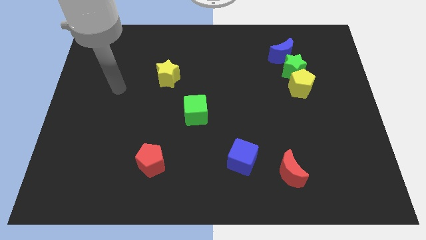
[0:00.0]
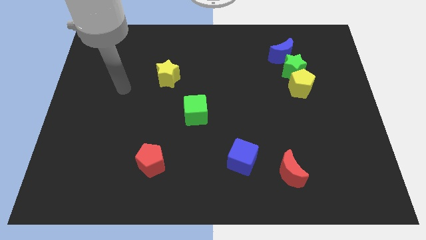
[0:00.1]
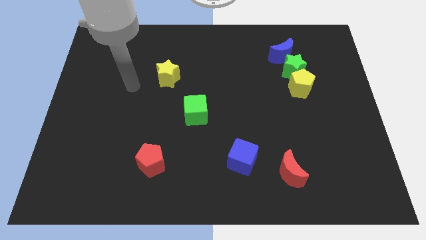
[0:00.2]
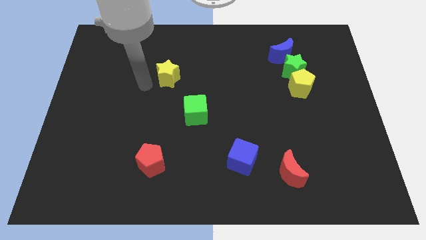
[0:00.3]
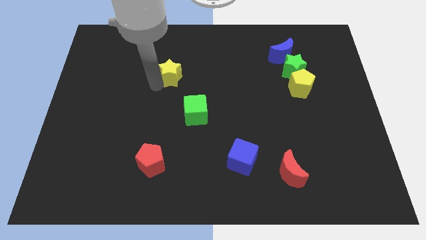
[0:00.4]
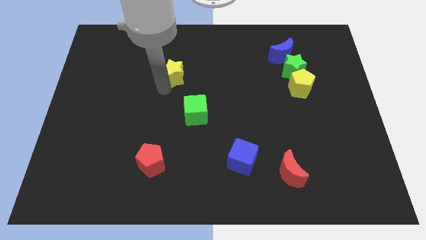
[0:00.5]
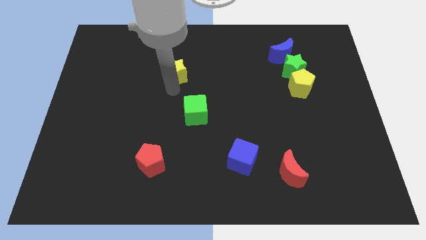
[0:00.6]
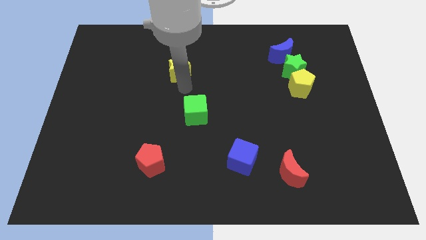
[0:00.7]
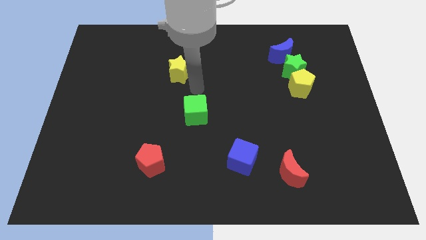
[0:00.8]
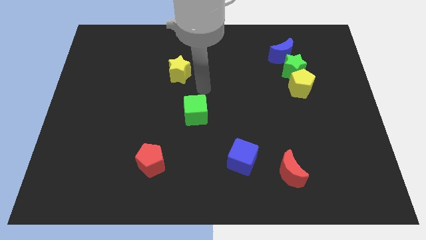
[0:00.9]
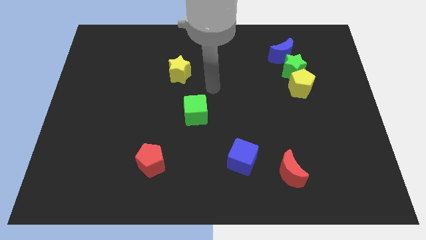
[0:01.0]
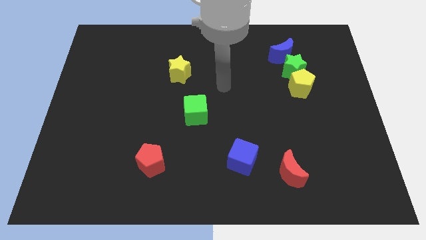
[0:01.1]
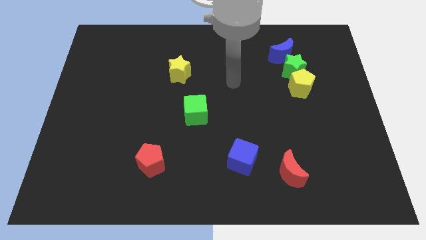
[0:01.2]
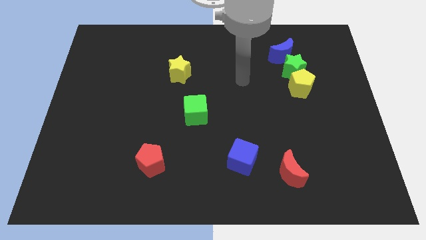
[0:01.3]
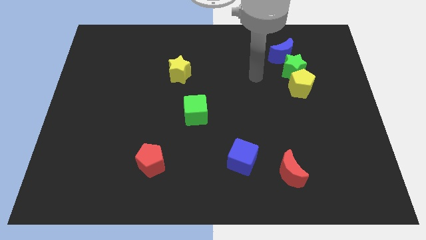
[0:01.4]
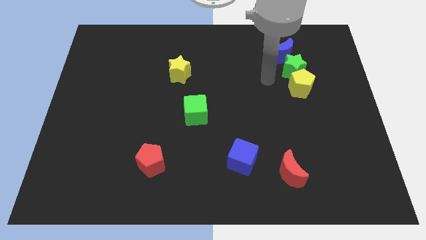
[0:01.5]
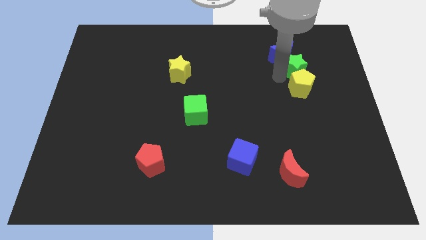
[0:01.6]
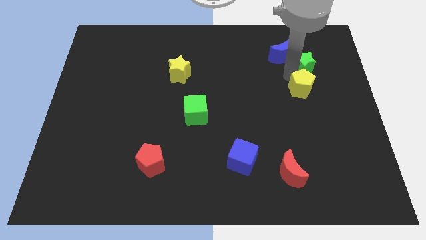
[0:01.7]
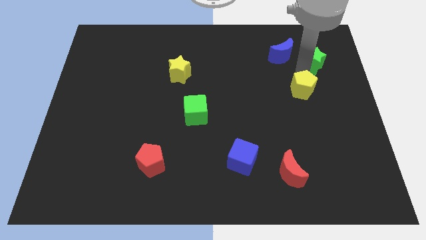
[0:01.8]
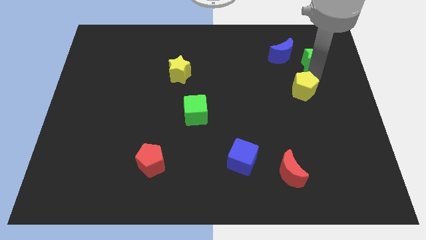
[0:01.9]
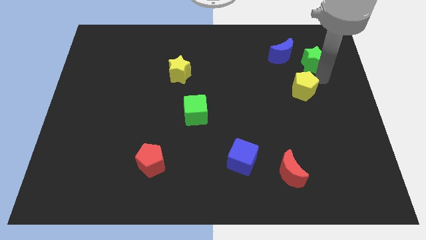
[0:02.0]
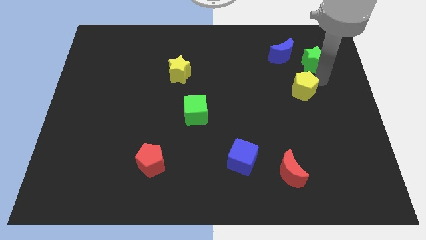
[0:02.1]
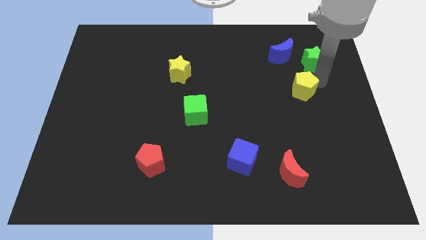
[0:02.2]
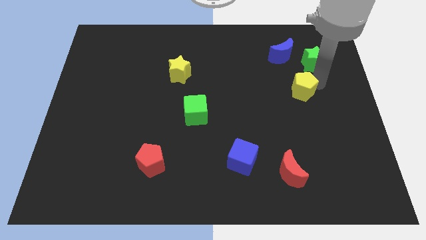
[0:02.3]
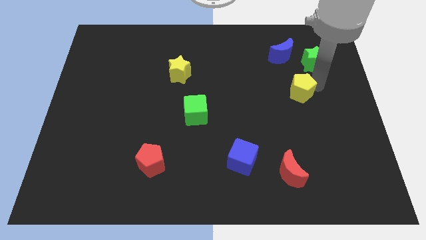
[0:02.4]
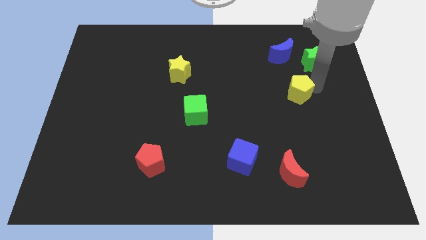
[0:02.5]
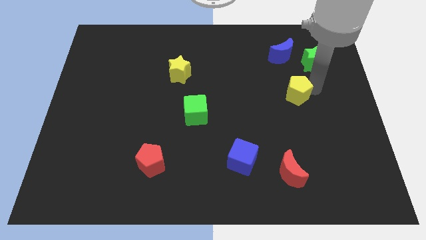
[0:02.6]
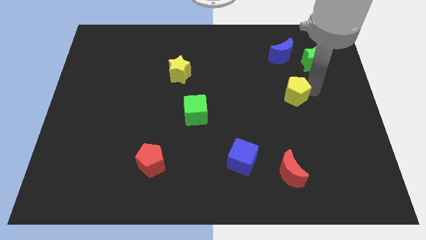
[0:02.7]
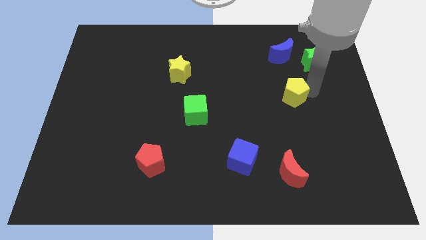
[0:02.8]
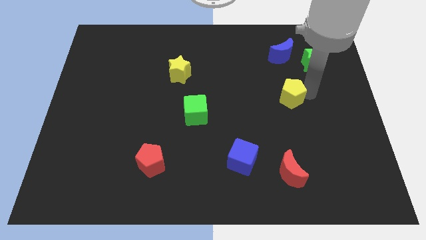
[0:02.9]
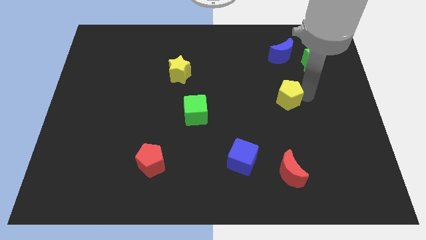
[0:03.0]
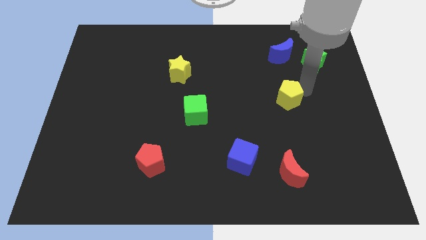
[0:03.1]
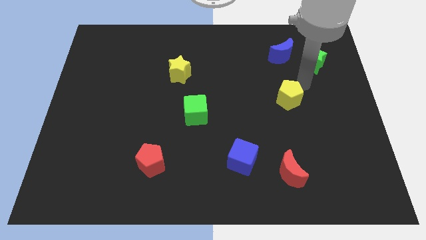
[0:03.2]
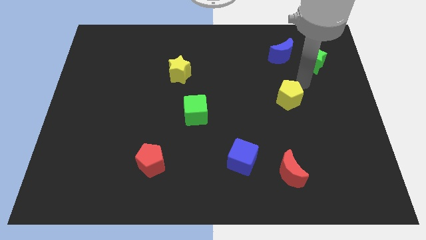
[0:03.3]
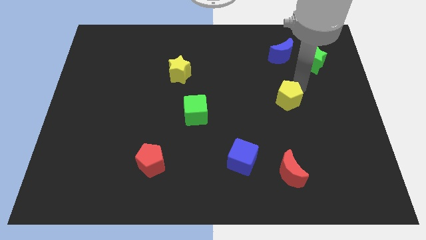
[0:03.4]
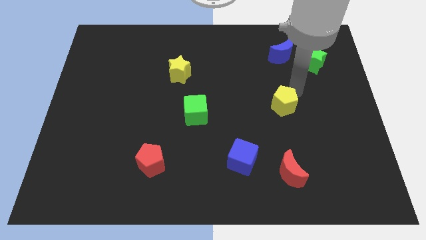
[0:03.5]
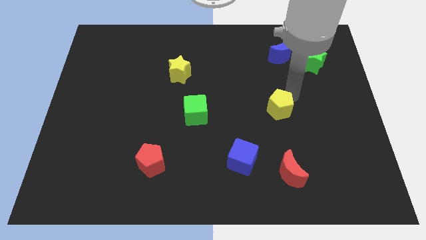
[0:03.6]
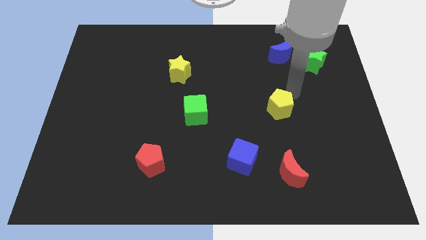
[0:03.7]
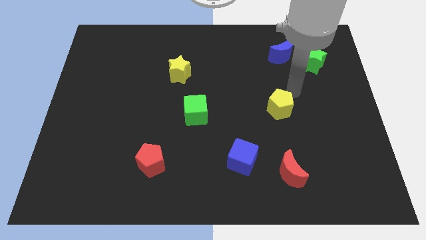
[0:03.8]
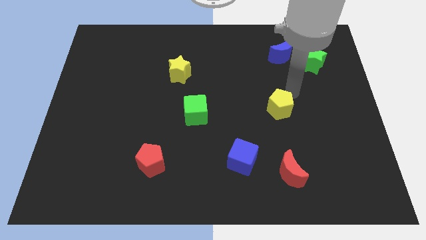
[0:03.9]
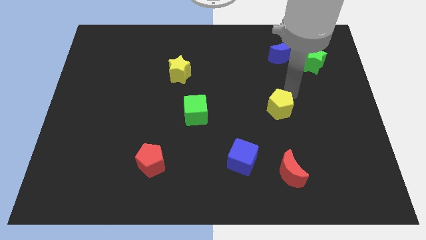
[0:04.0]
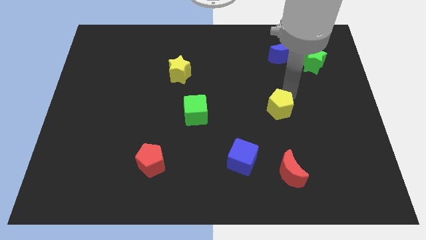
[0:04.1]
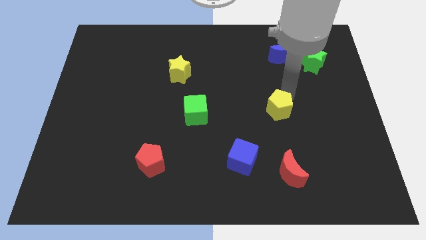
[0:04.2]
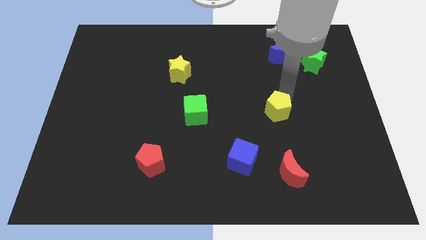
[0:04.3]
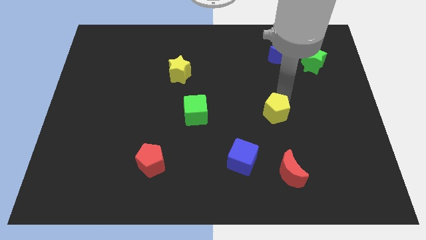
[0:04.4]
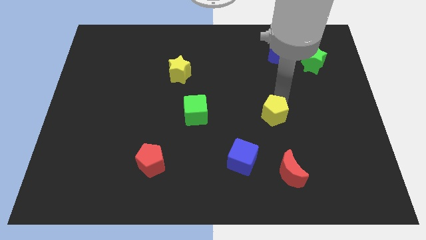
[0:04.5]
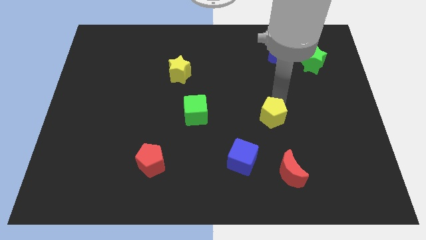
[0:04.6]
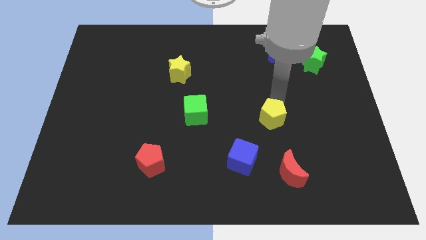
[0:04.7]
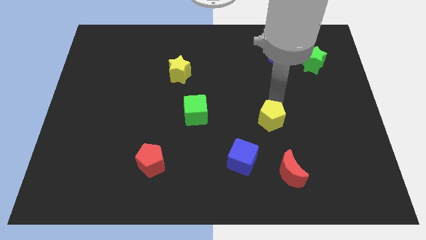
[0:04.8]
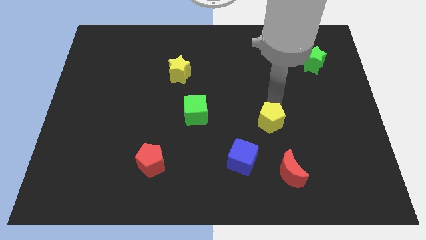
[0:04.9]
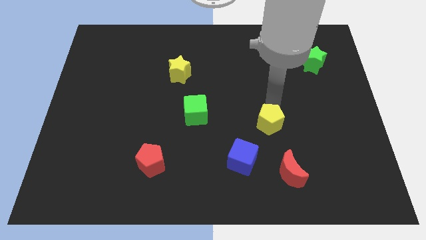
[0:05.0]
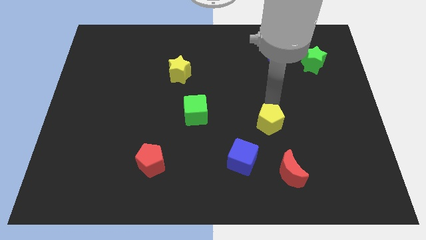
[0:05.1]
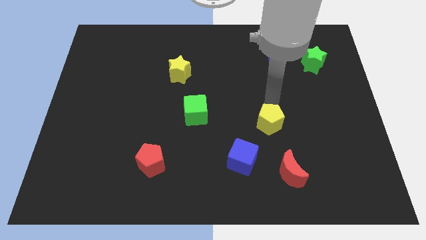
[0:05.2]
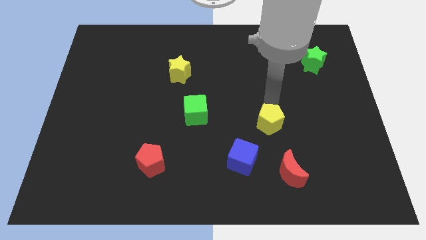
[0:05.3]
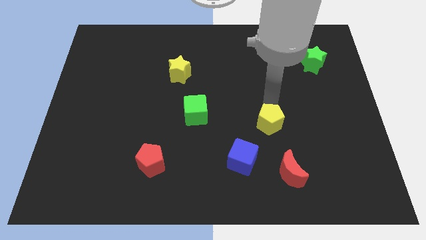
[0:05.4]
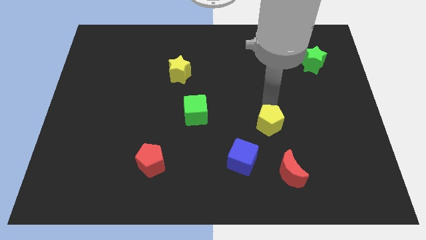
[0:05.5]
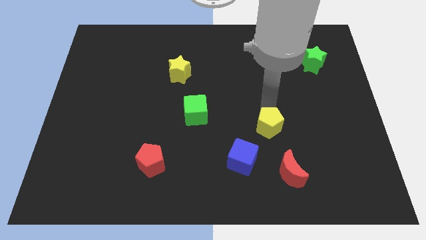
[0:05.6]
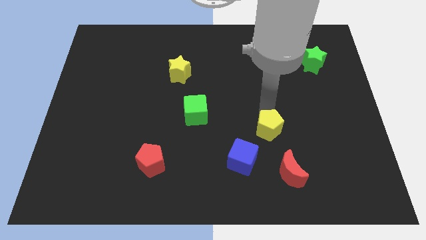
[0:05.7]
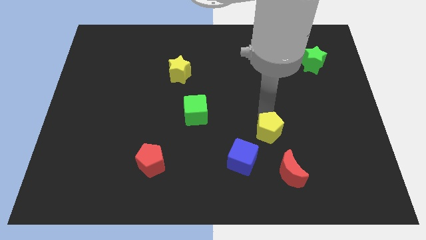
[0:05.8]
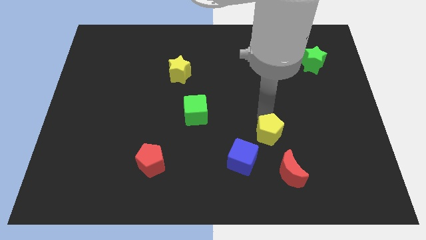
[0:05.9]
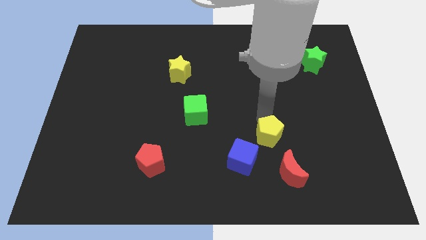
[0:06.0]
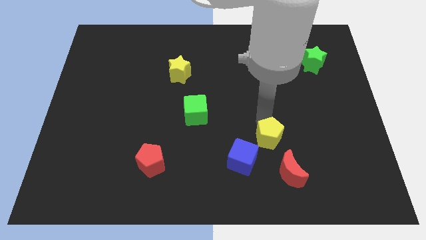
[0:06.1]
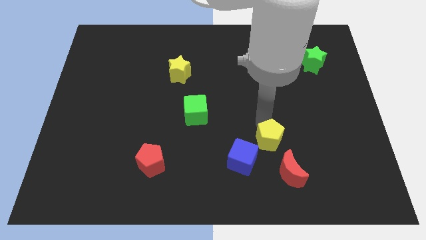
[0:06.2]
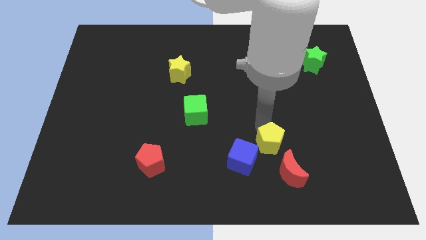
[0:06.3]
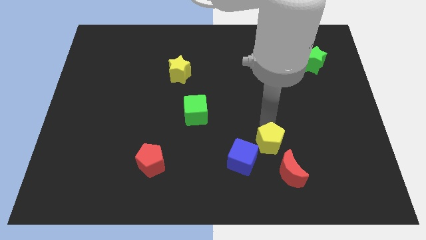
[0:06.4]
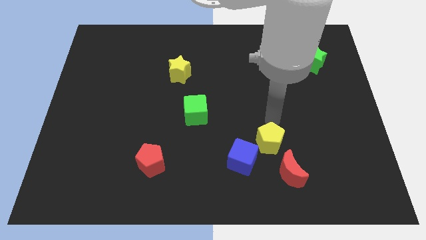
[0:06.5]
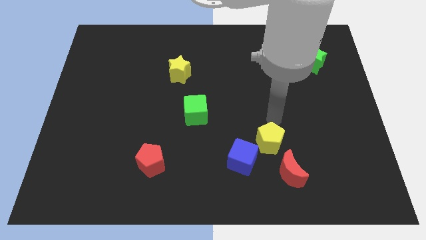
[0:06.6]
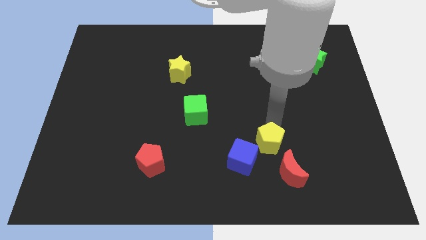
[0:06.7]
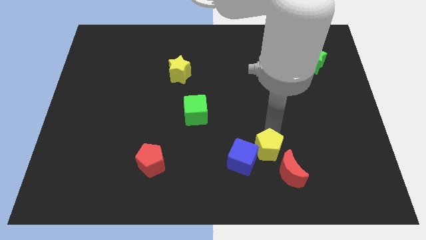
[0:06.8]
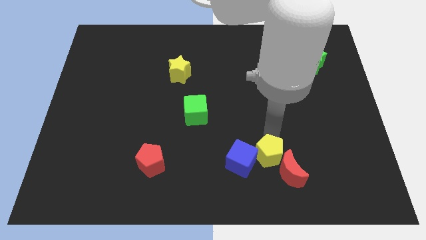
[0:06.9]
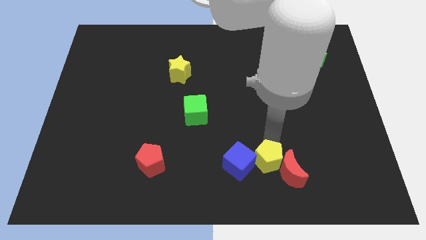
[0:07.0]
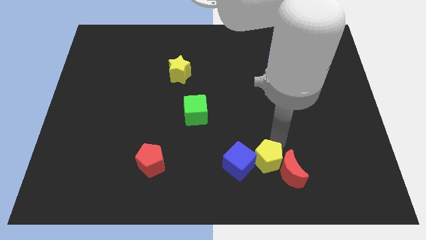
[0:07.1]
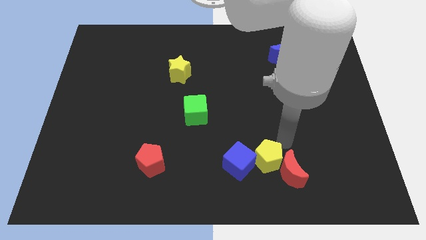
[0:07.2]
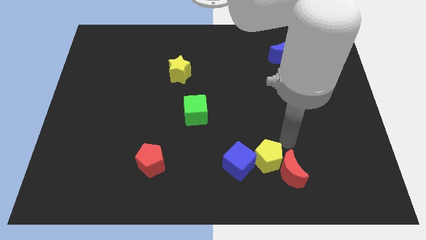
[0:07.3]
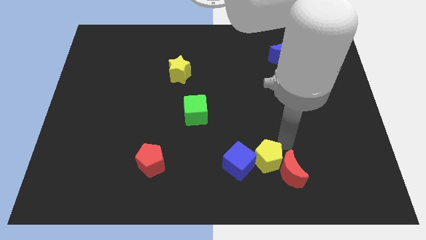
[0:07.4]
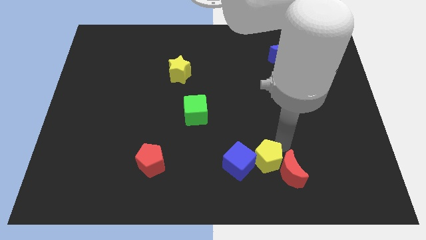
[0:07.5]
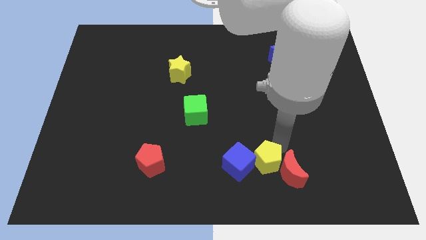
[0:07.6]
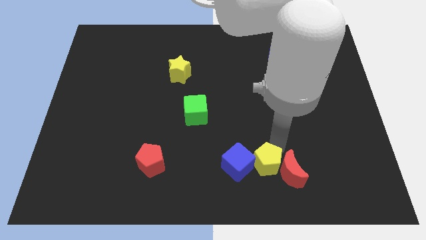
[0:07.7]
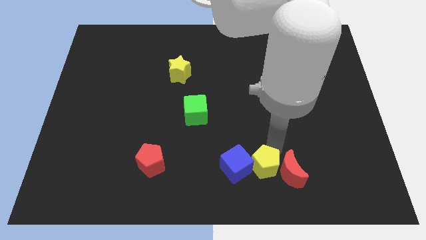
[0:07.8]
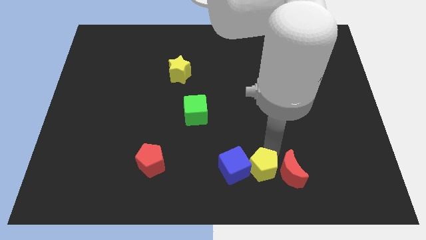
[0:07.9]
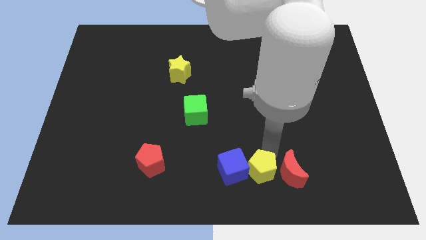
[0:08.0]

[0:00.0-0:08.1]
slide the yellow pentagon to the bottom
